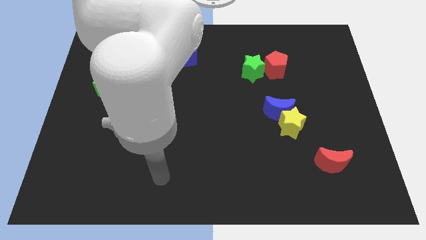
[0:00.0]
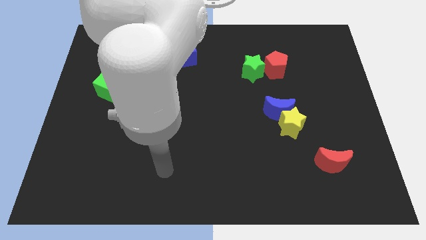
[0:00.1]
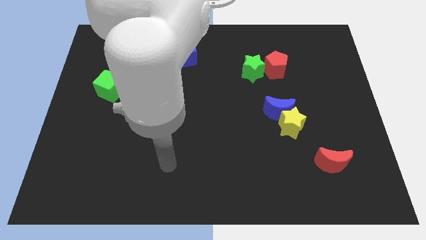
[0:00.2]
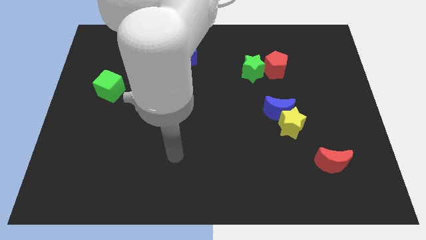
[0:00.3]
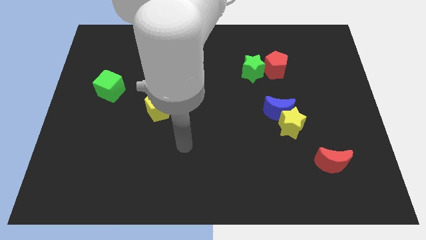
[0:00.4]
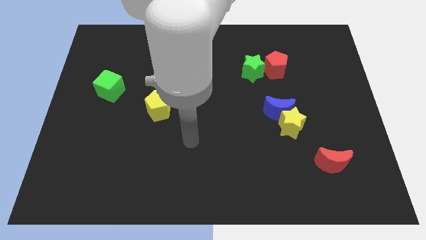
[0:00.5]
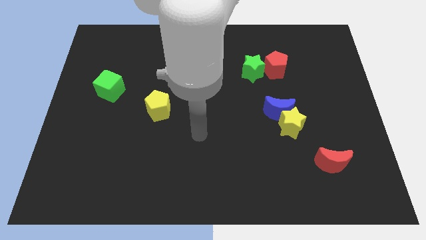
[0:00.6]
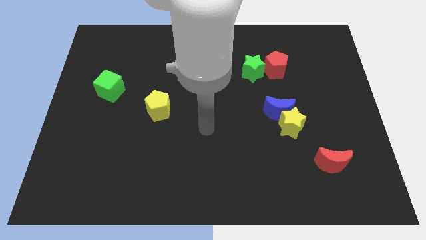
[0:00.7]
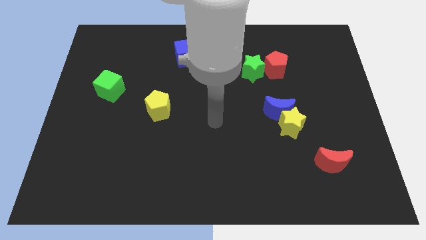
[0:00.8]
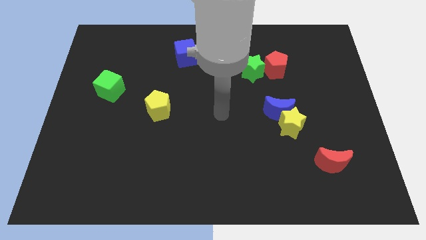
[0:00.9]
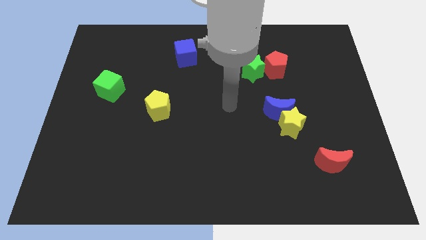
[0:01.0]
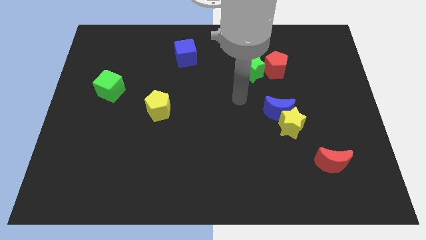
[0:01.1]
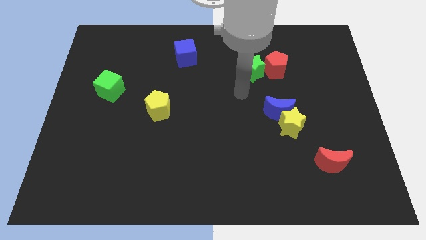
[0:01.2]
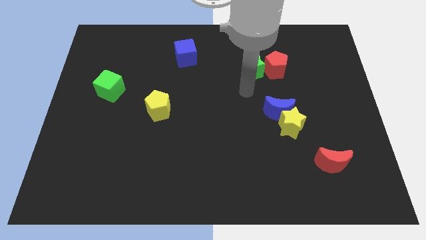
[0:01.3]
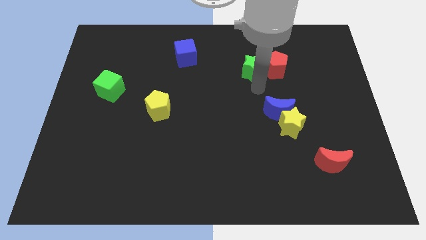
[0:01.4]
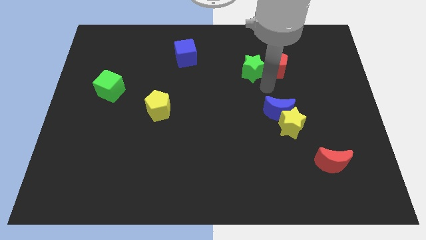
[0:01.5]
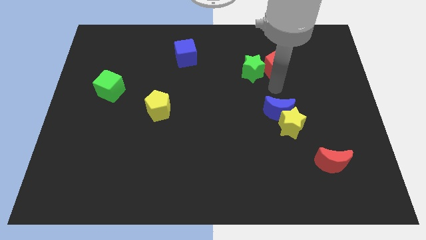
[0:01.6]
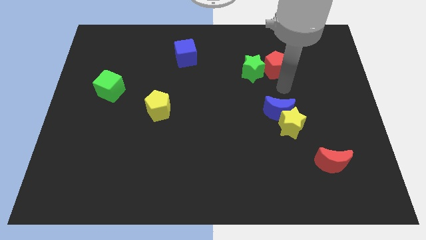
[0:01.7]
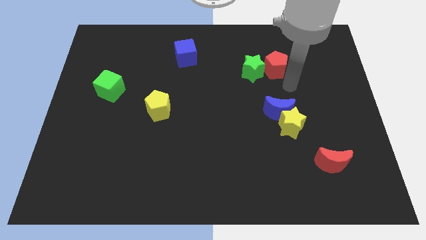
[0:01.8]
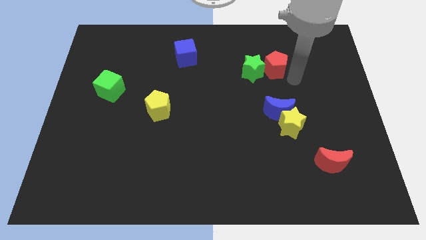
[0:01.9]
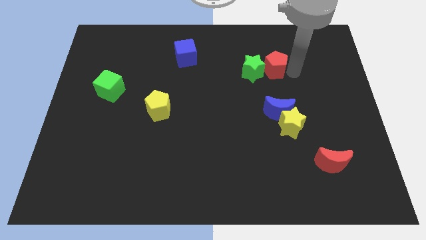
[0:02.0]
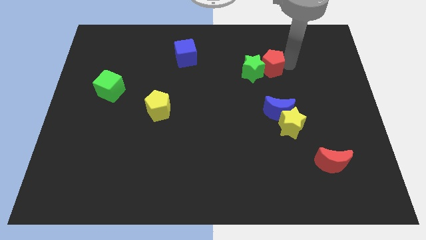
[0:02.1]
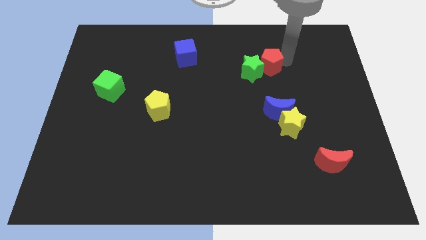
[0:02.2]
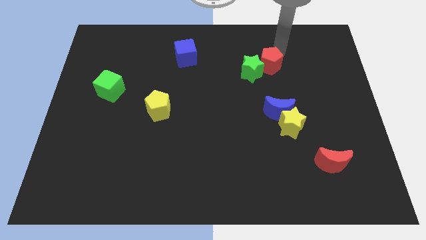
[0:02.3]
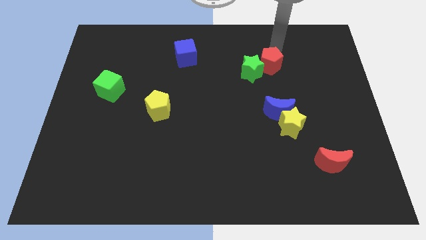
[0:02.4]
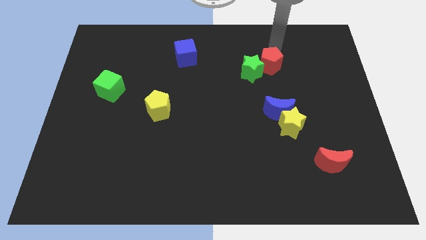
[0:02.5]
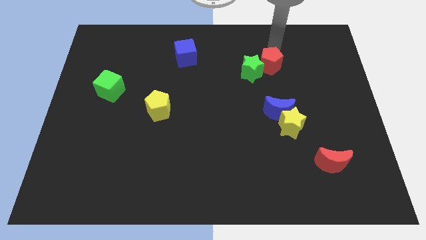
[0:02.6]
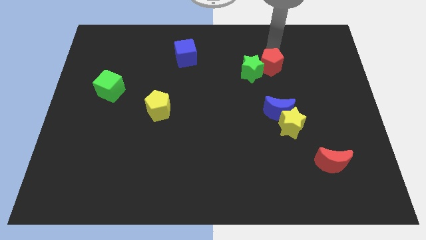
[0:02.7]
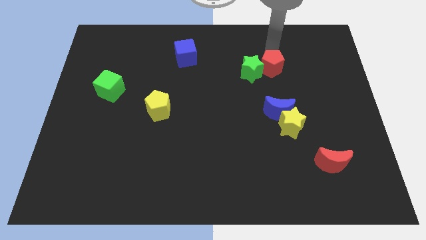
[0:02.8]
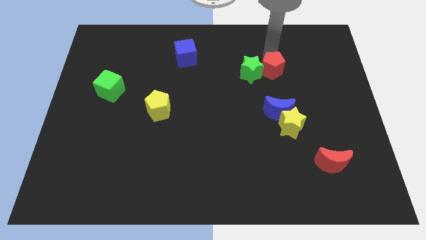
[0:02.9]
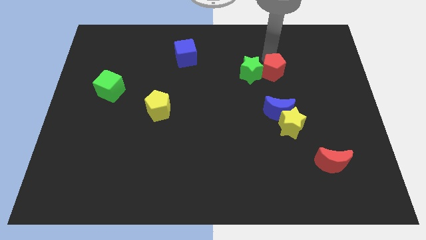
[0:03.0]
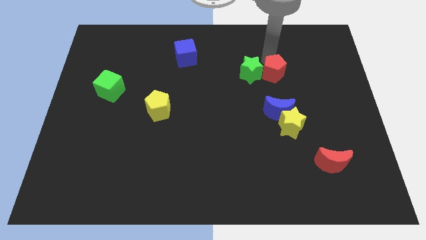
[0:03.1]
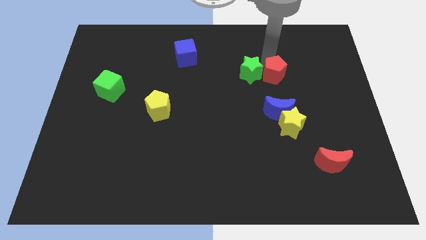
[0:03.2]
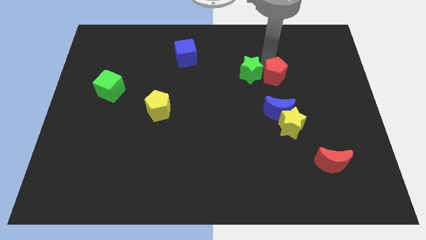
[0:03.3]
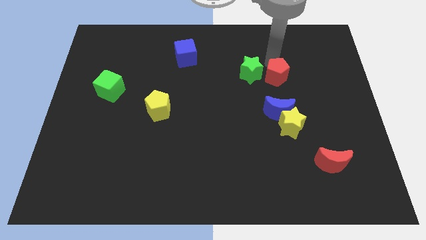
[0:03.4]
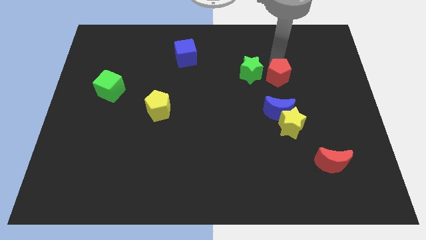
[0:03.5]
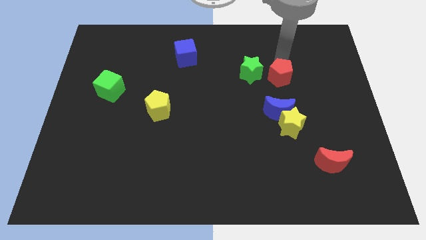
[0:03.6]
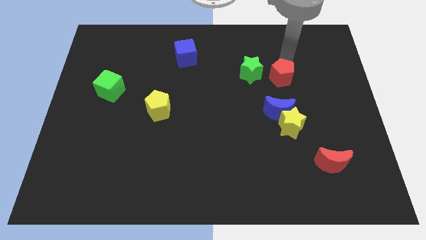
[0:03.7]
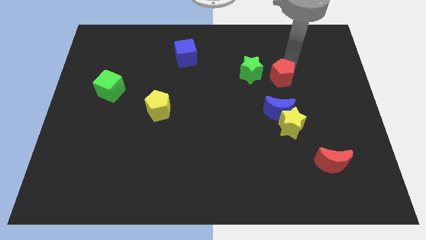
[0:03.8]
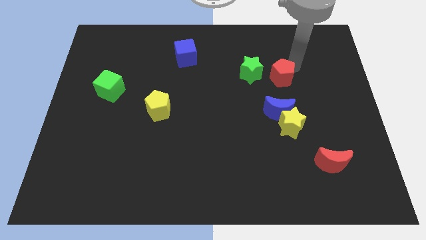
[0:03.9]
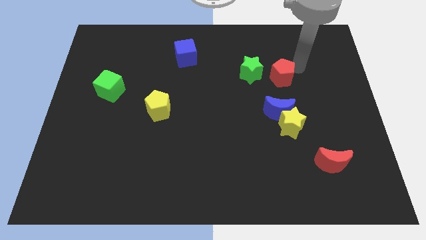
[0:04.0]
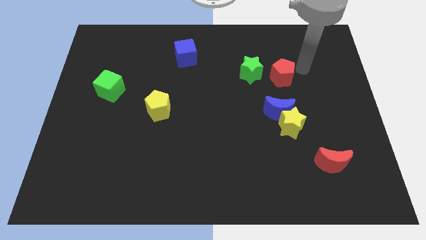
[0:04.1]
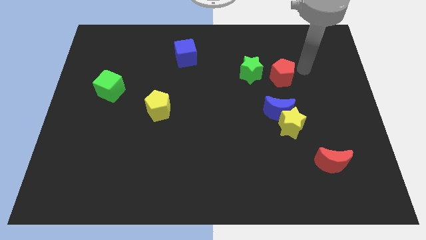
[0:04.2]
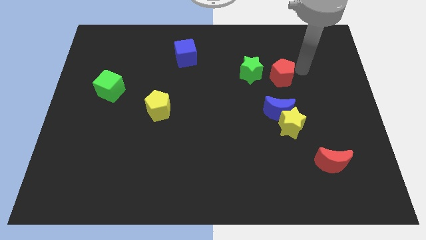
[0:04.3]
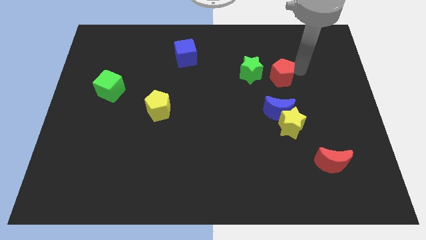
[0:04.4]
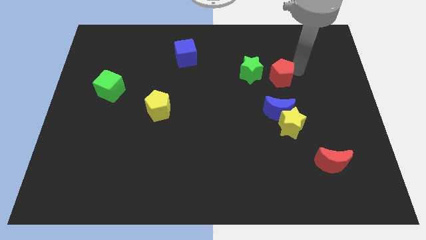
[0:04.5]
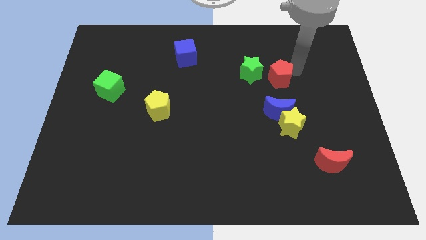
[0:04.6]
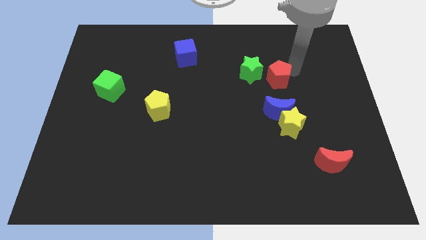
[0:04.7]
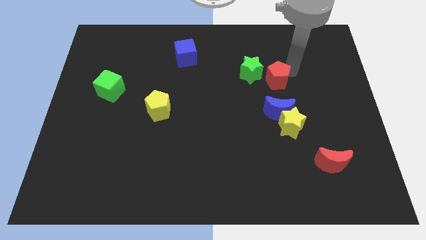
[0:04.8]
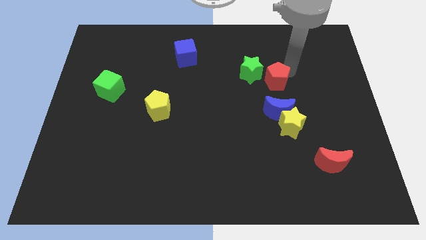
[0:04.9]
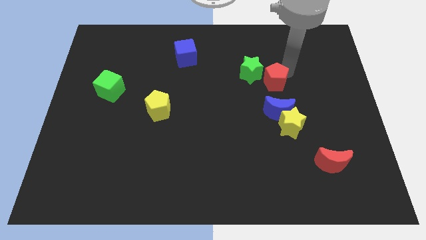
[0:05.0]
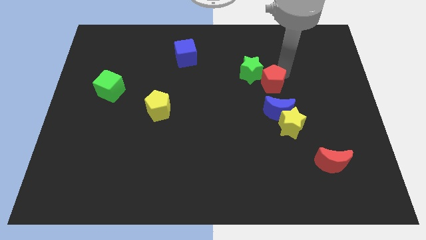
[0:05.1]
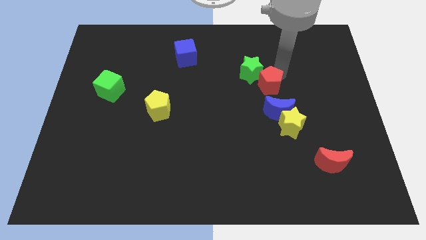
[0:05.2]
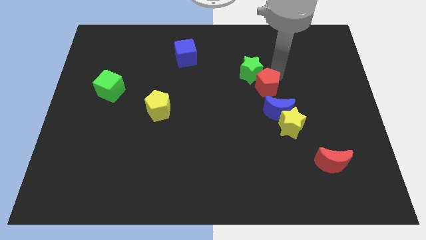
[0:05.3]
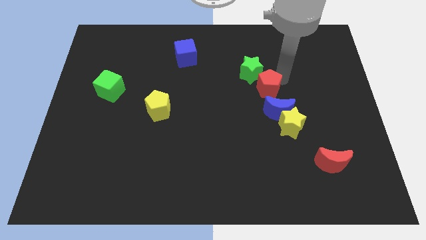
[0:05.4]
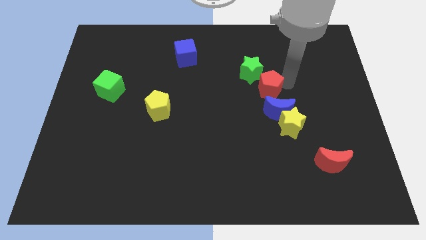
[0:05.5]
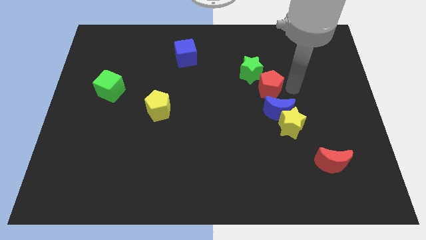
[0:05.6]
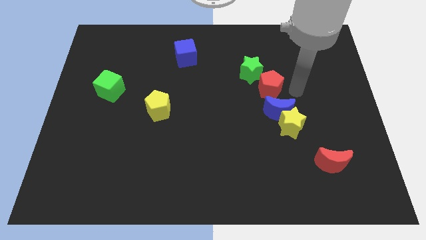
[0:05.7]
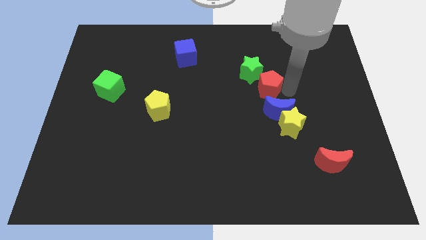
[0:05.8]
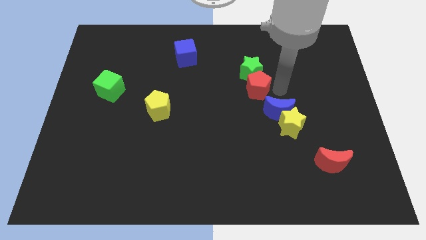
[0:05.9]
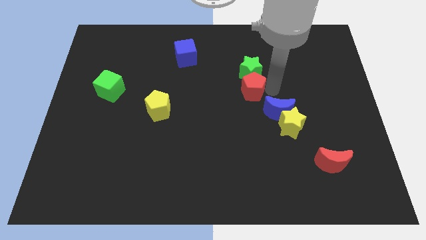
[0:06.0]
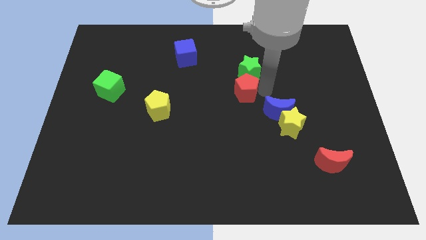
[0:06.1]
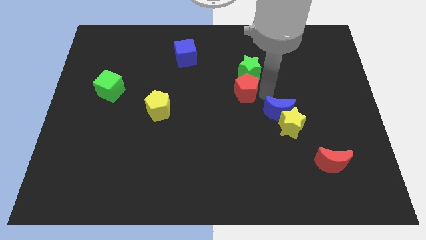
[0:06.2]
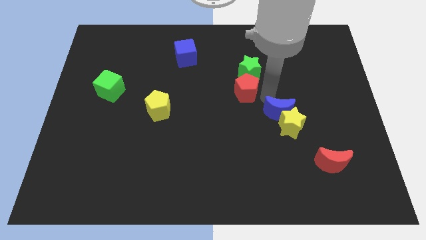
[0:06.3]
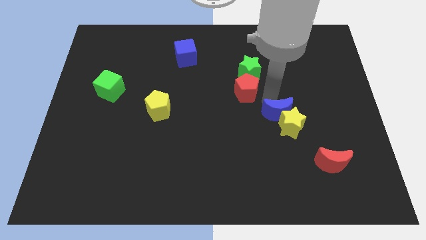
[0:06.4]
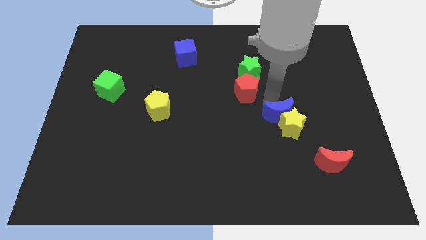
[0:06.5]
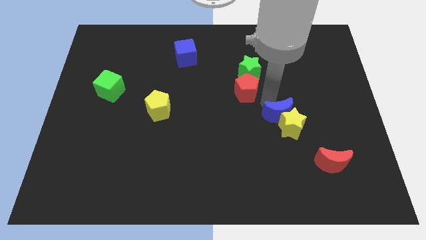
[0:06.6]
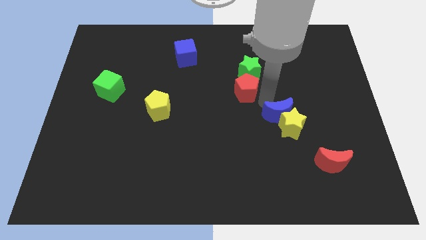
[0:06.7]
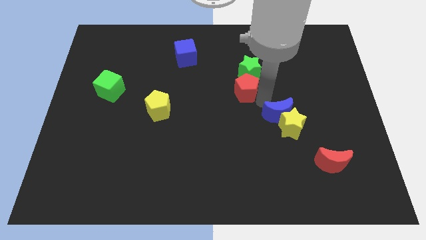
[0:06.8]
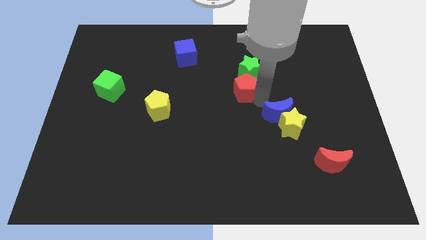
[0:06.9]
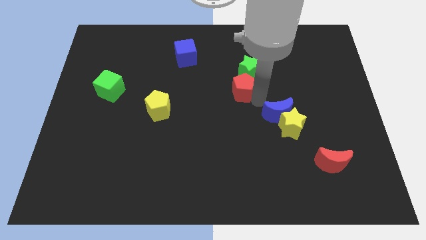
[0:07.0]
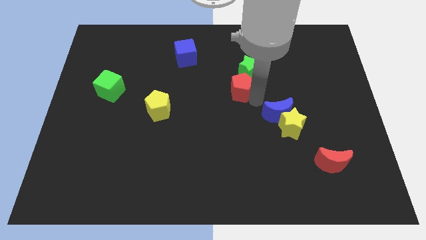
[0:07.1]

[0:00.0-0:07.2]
slightly push the red pentagon to the left

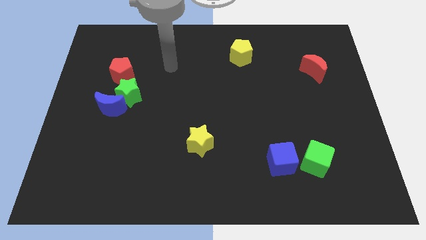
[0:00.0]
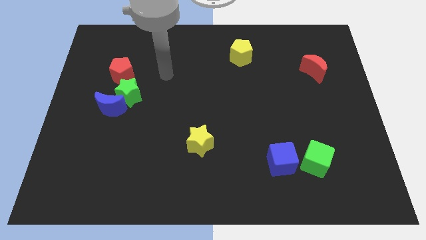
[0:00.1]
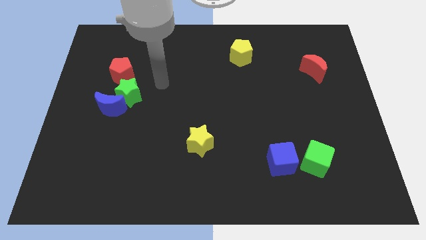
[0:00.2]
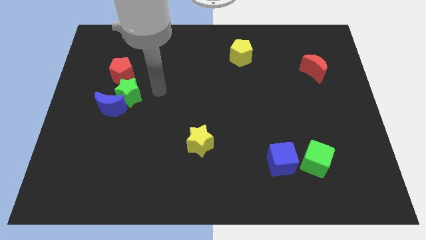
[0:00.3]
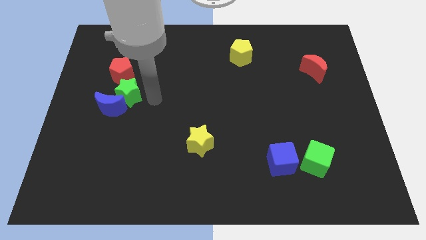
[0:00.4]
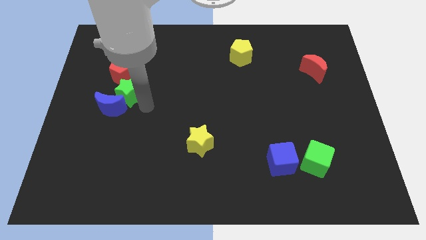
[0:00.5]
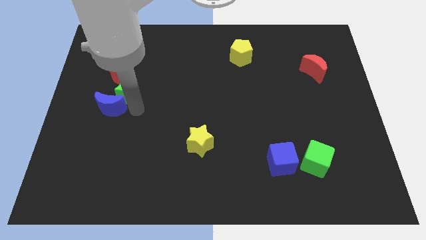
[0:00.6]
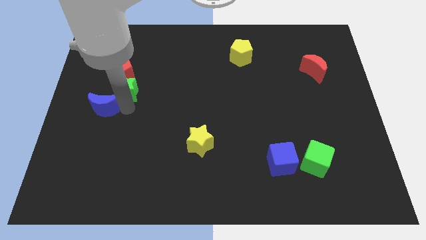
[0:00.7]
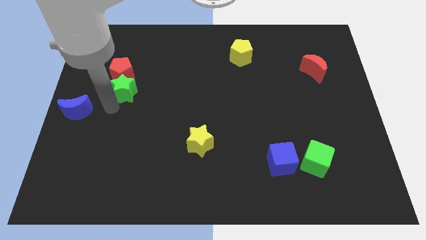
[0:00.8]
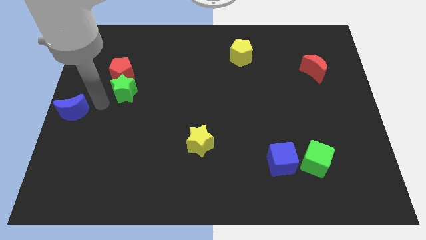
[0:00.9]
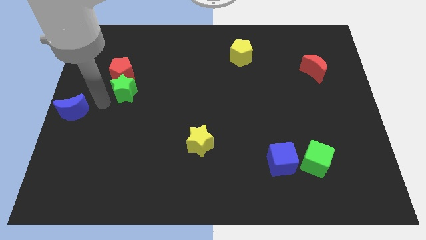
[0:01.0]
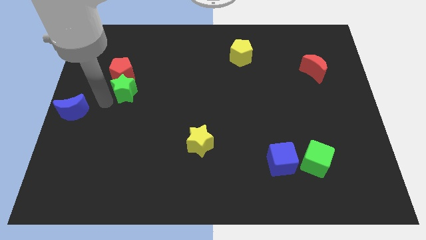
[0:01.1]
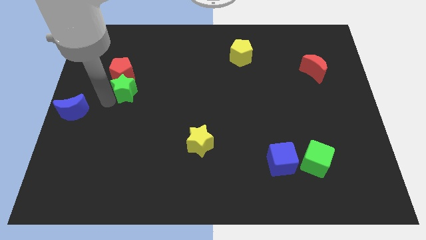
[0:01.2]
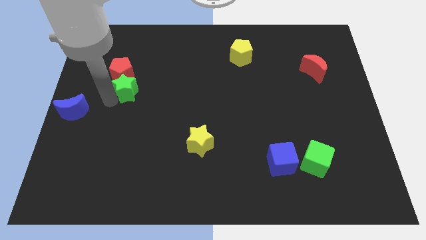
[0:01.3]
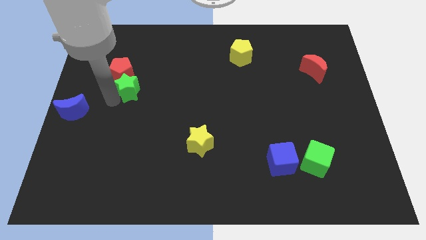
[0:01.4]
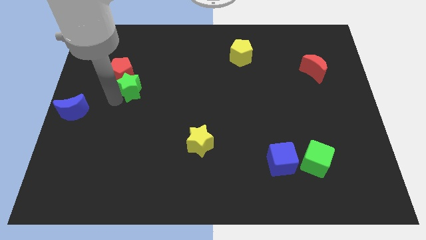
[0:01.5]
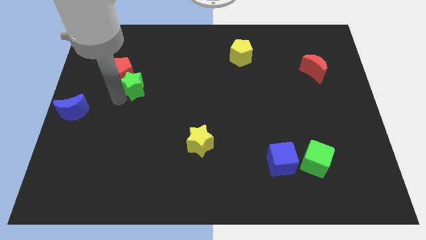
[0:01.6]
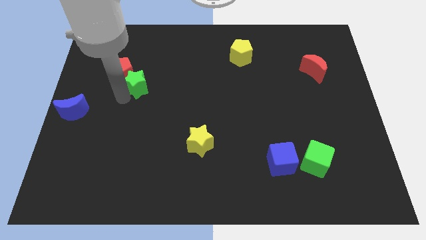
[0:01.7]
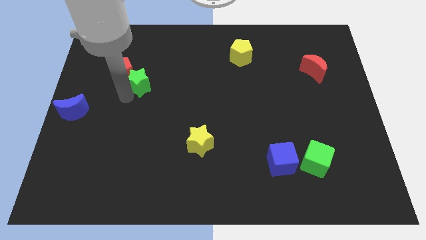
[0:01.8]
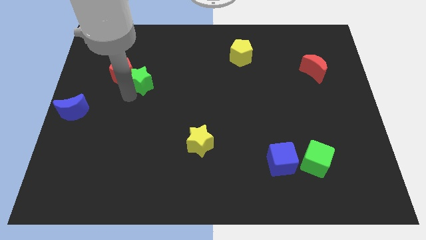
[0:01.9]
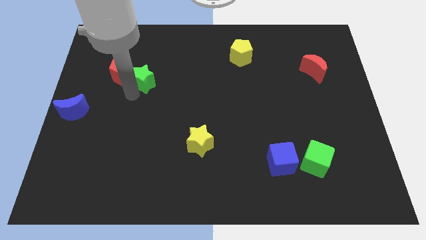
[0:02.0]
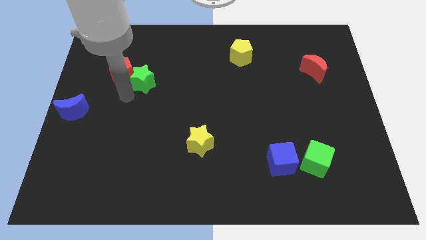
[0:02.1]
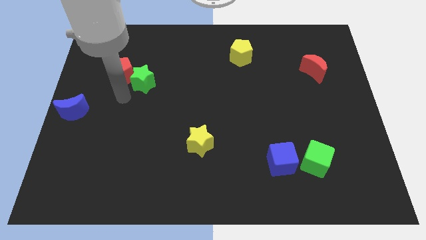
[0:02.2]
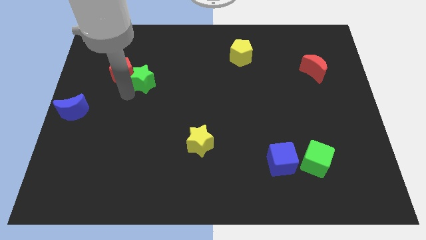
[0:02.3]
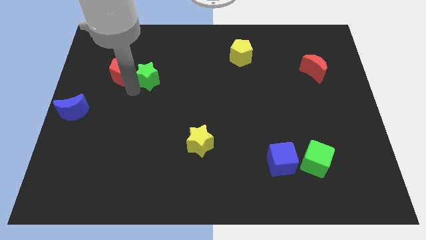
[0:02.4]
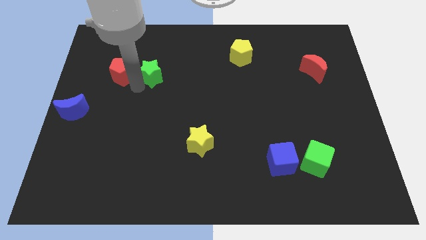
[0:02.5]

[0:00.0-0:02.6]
push the green star upwards and then right somewhat
